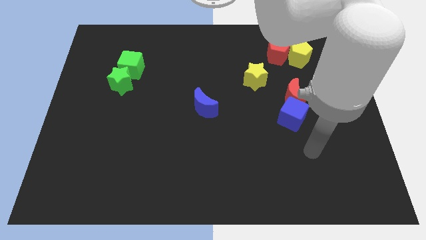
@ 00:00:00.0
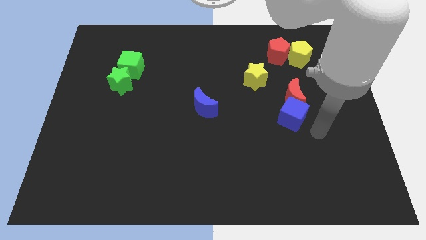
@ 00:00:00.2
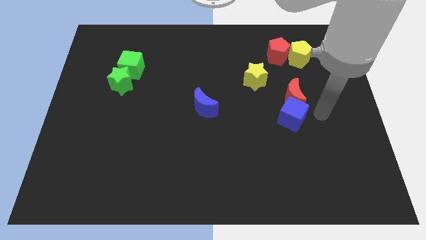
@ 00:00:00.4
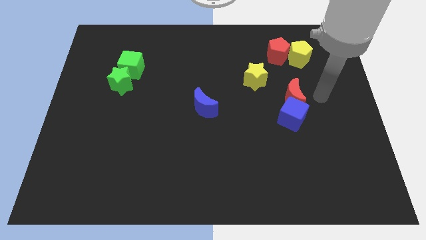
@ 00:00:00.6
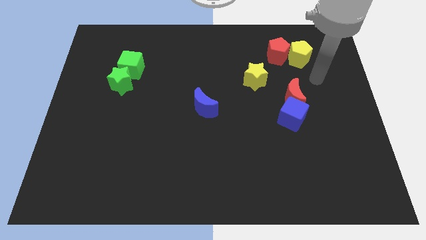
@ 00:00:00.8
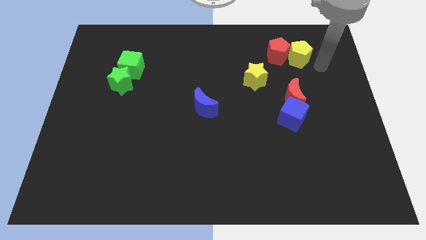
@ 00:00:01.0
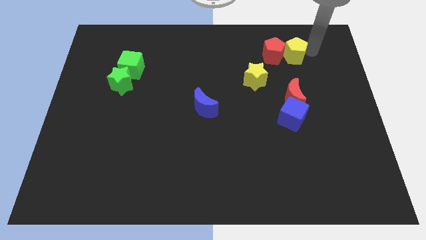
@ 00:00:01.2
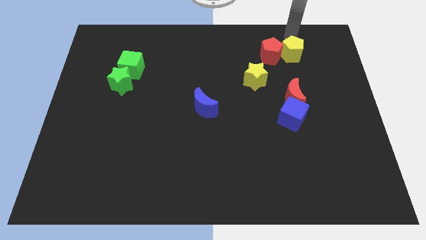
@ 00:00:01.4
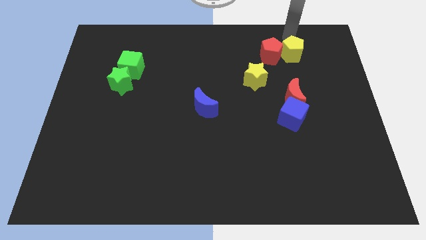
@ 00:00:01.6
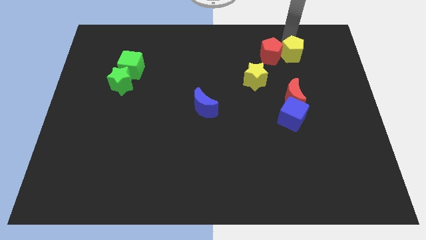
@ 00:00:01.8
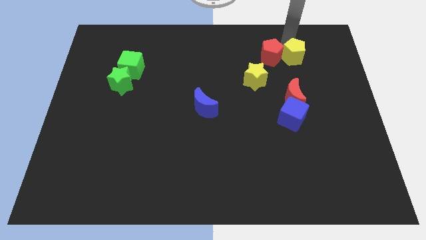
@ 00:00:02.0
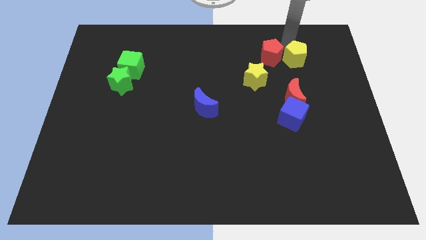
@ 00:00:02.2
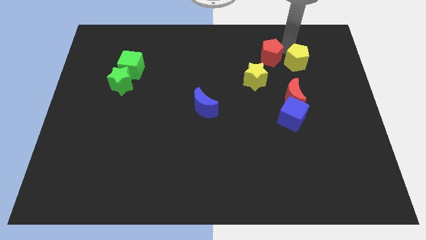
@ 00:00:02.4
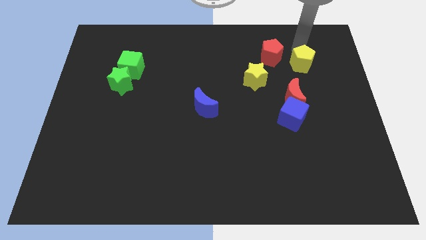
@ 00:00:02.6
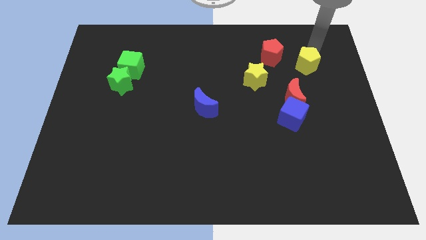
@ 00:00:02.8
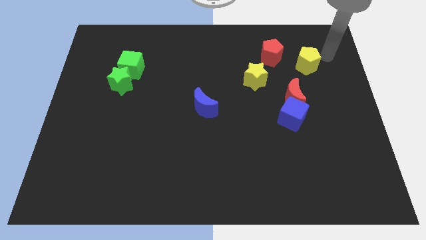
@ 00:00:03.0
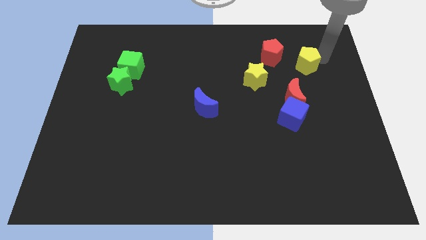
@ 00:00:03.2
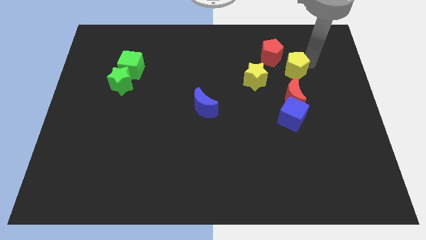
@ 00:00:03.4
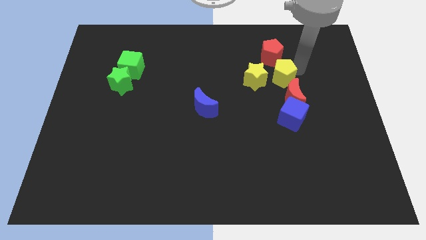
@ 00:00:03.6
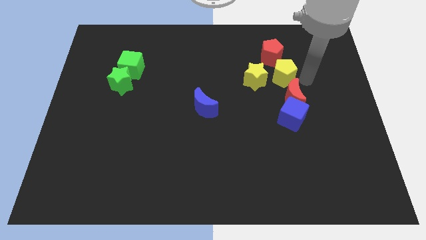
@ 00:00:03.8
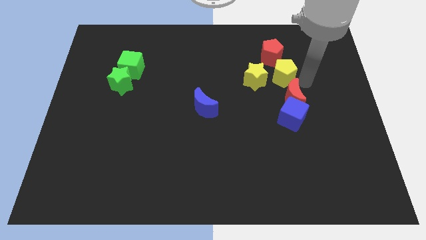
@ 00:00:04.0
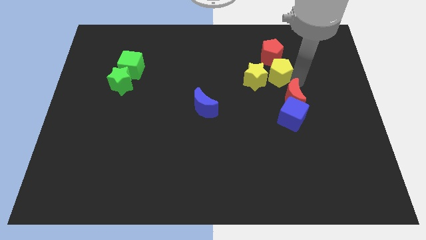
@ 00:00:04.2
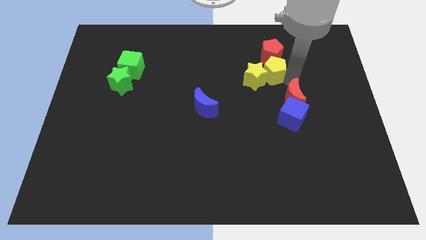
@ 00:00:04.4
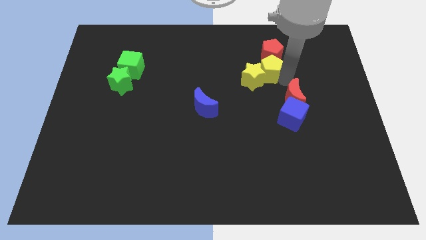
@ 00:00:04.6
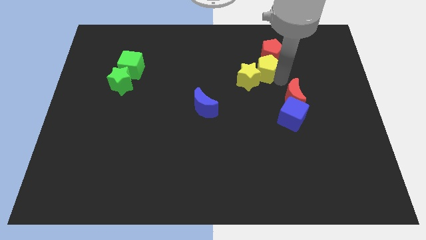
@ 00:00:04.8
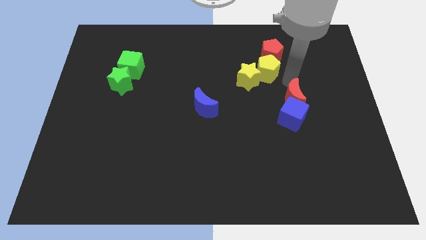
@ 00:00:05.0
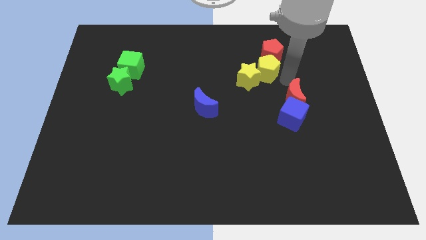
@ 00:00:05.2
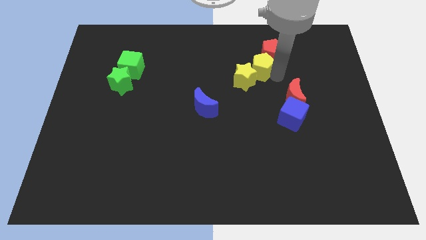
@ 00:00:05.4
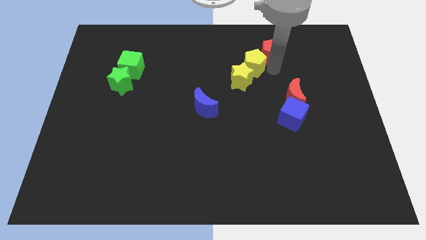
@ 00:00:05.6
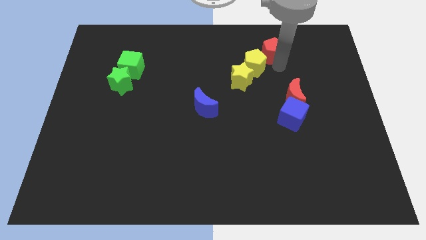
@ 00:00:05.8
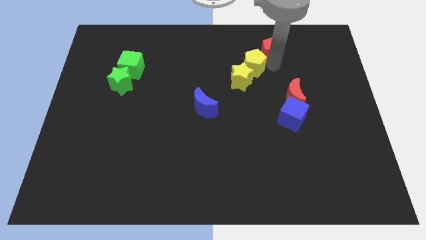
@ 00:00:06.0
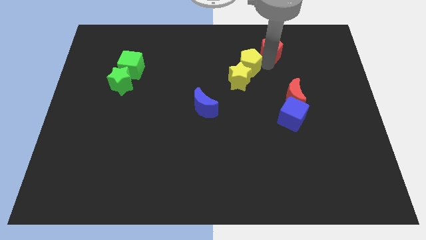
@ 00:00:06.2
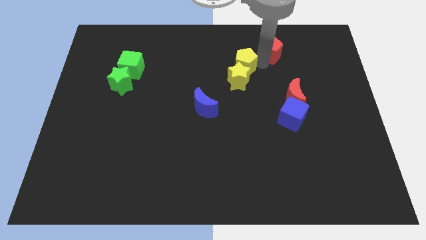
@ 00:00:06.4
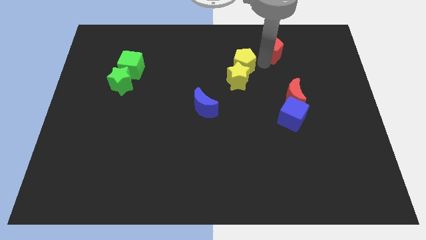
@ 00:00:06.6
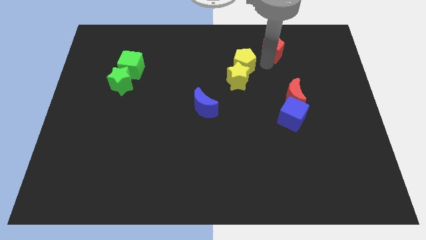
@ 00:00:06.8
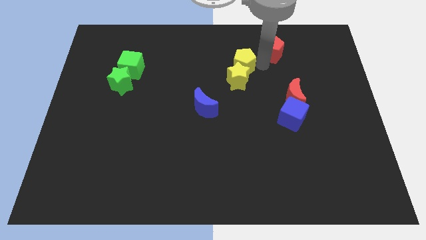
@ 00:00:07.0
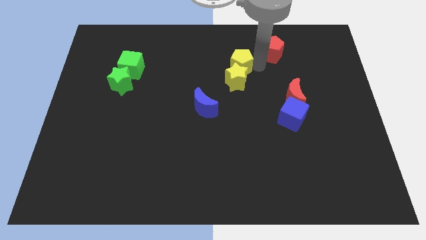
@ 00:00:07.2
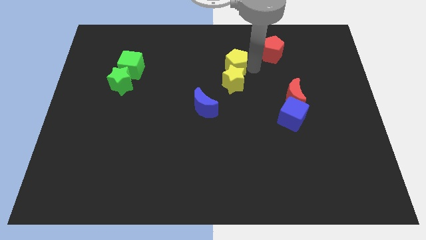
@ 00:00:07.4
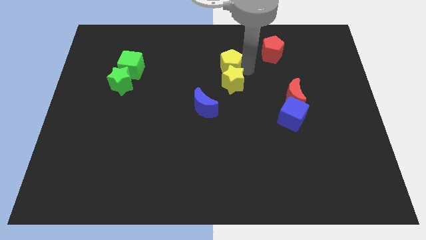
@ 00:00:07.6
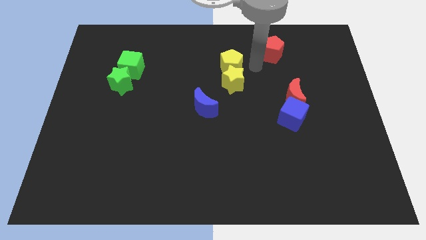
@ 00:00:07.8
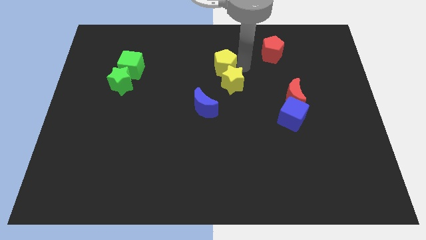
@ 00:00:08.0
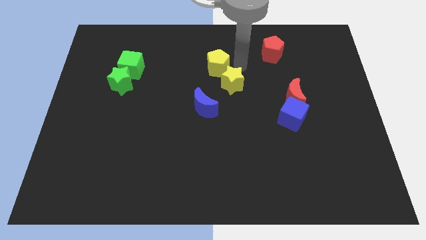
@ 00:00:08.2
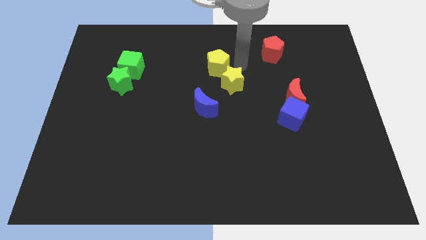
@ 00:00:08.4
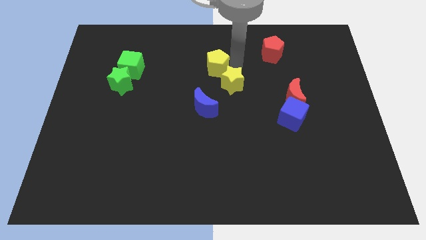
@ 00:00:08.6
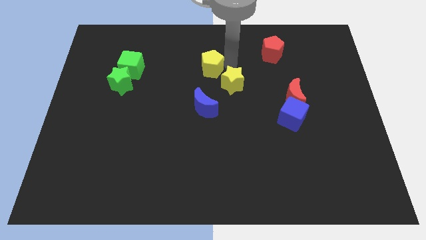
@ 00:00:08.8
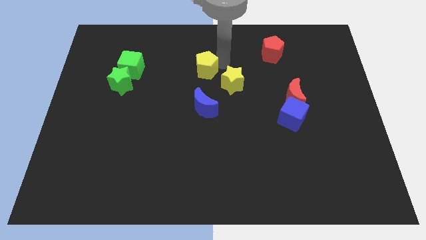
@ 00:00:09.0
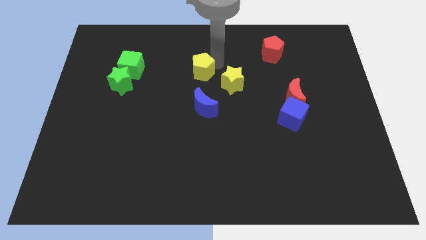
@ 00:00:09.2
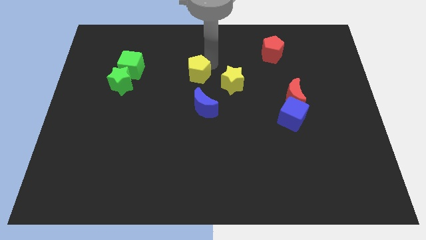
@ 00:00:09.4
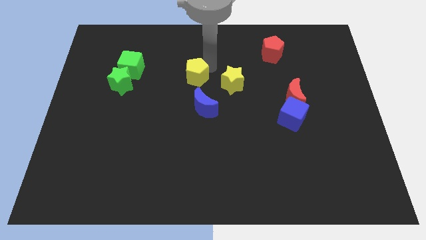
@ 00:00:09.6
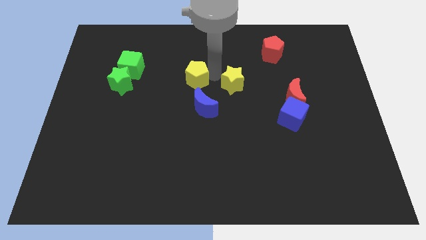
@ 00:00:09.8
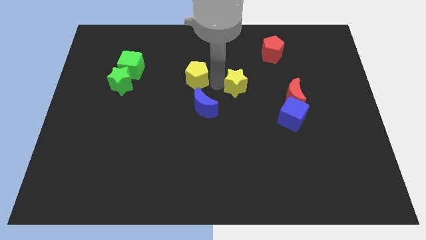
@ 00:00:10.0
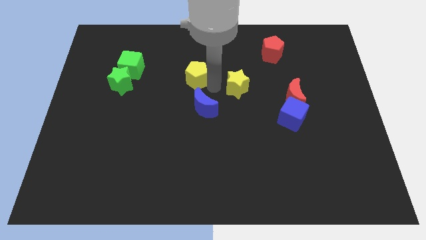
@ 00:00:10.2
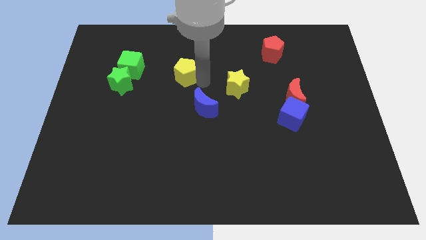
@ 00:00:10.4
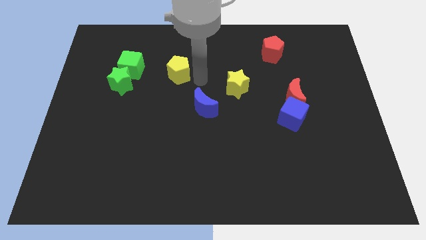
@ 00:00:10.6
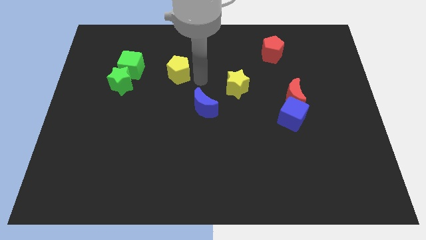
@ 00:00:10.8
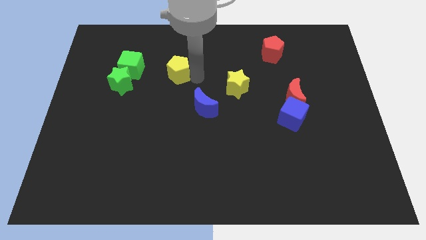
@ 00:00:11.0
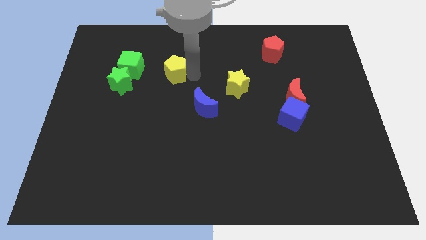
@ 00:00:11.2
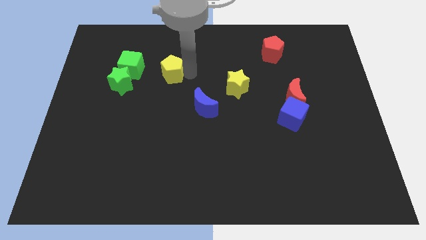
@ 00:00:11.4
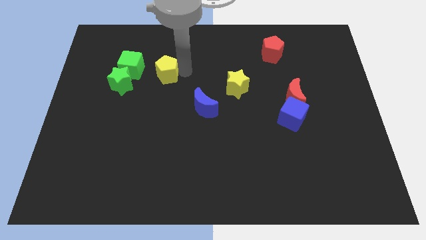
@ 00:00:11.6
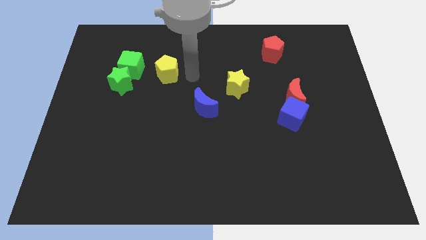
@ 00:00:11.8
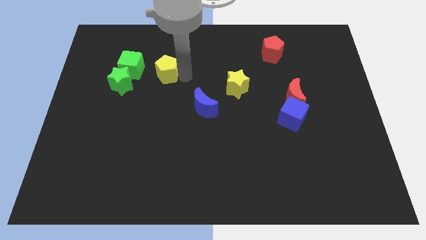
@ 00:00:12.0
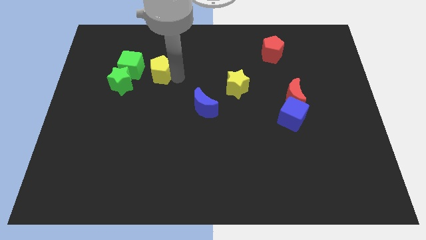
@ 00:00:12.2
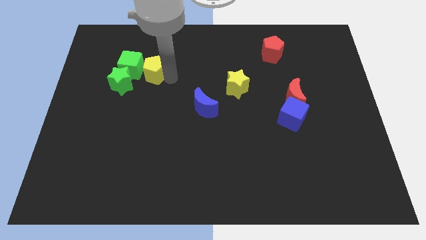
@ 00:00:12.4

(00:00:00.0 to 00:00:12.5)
slide the yellow pentagon to the green cube

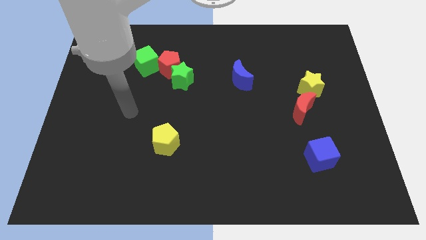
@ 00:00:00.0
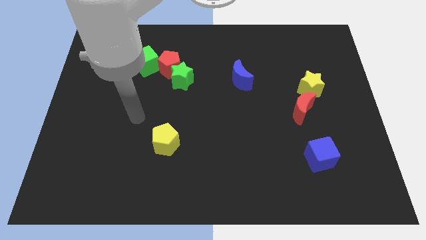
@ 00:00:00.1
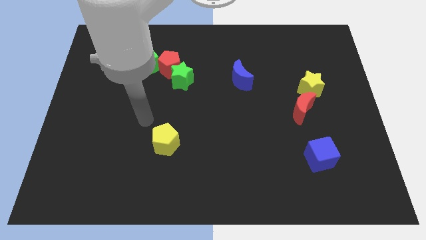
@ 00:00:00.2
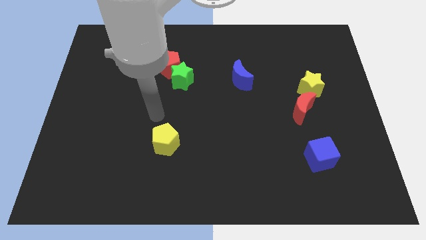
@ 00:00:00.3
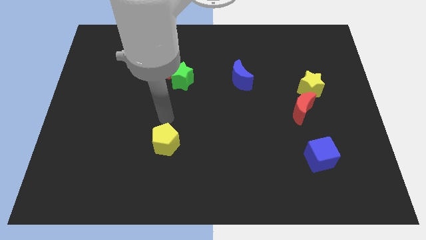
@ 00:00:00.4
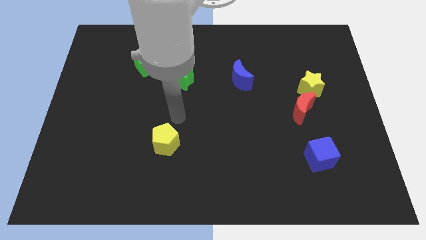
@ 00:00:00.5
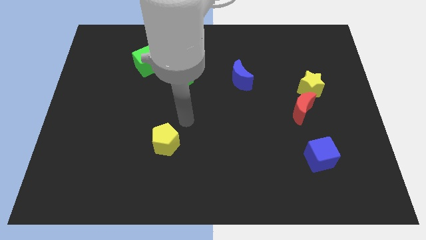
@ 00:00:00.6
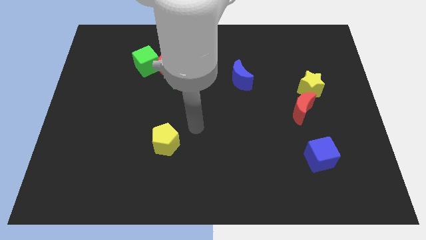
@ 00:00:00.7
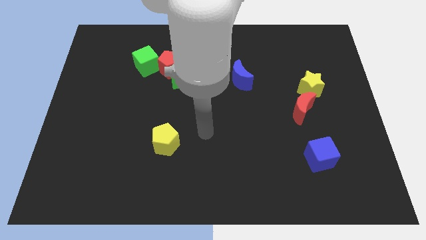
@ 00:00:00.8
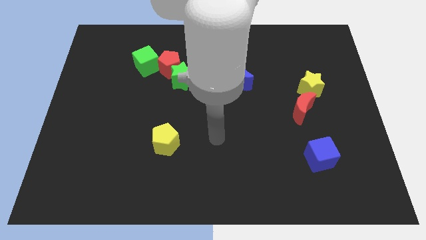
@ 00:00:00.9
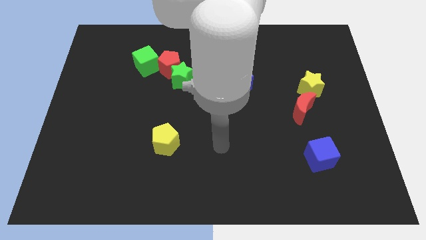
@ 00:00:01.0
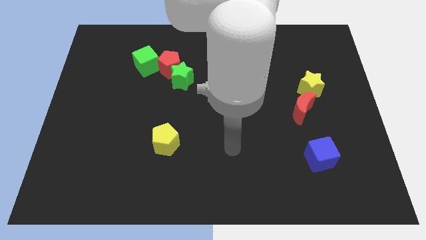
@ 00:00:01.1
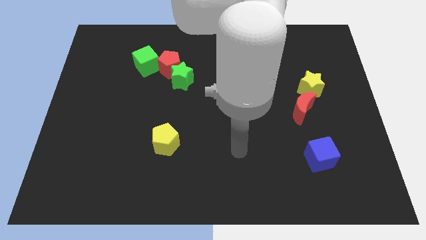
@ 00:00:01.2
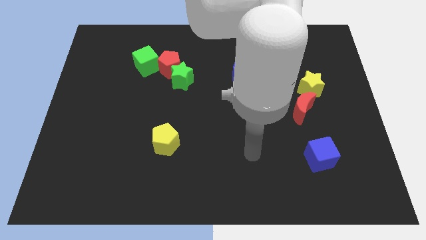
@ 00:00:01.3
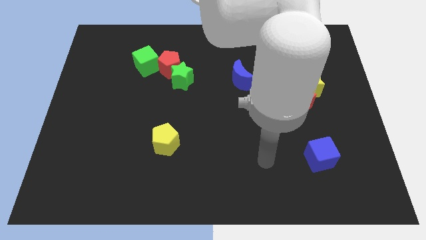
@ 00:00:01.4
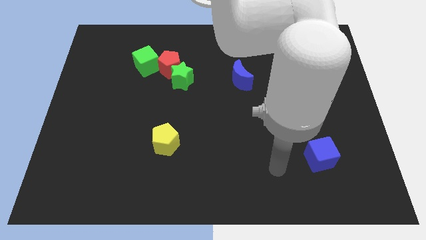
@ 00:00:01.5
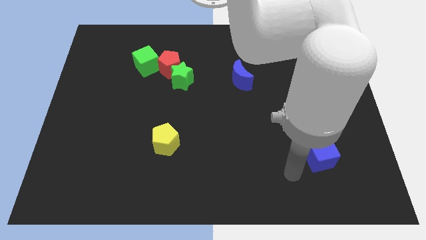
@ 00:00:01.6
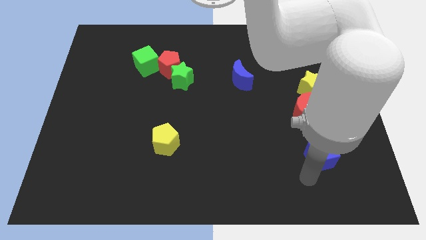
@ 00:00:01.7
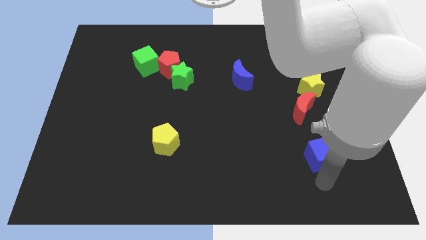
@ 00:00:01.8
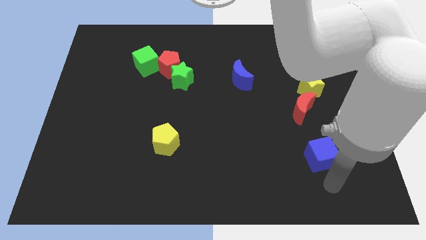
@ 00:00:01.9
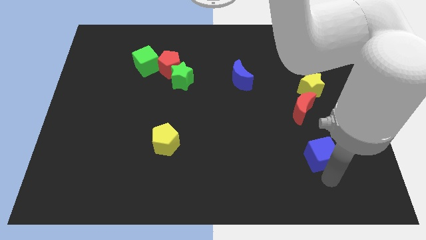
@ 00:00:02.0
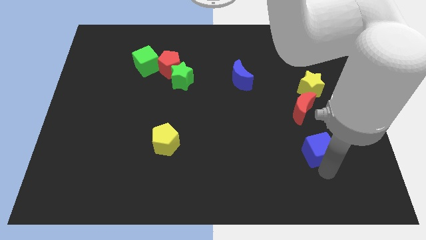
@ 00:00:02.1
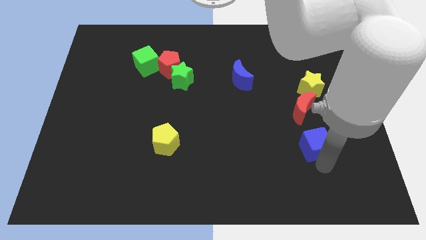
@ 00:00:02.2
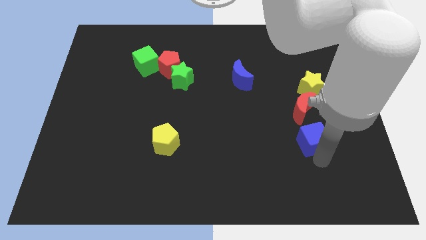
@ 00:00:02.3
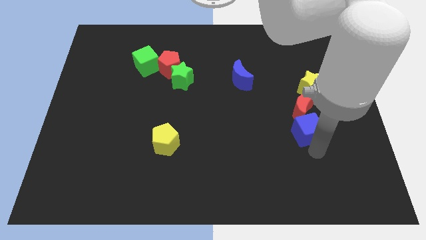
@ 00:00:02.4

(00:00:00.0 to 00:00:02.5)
put the blue cube to the red moon
